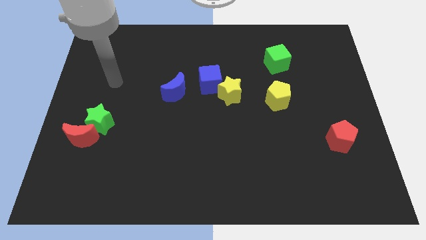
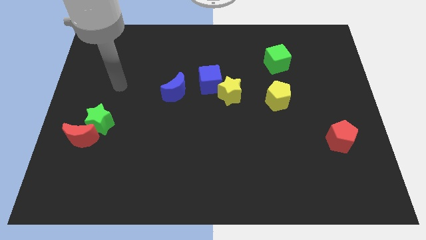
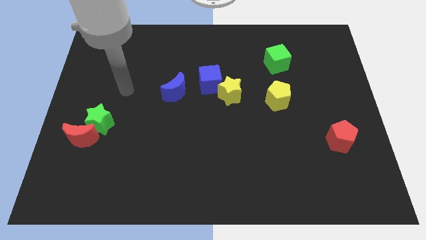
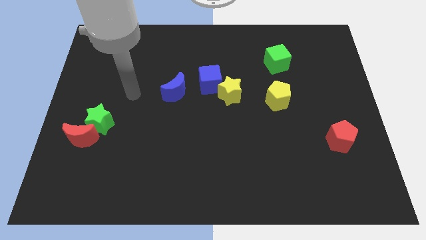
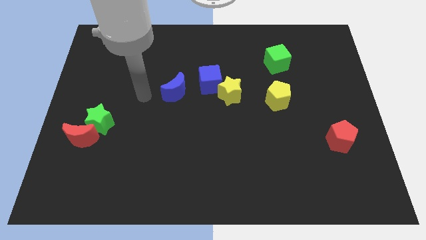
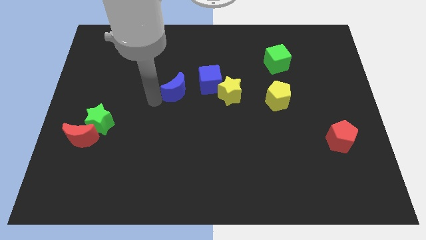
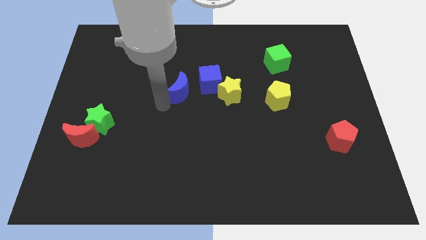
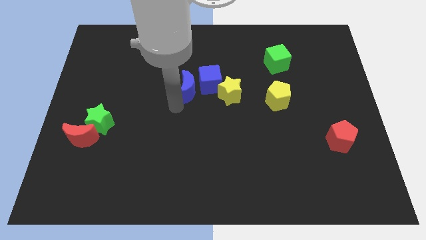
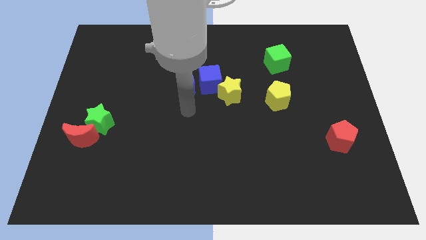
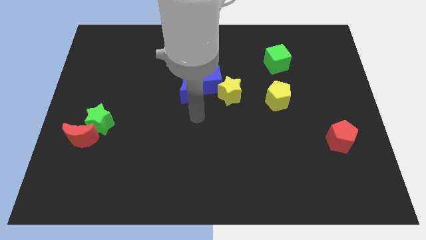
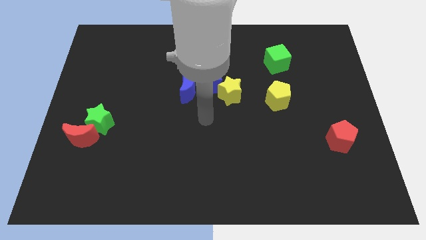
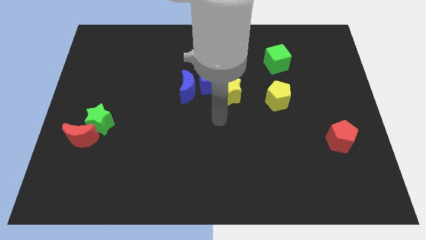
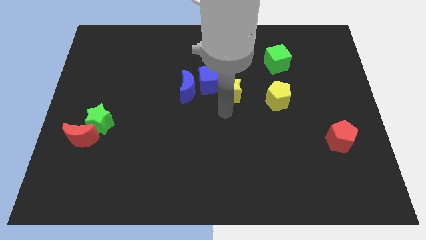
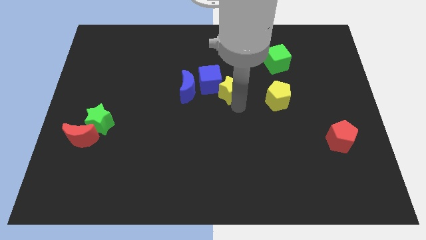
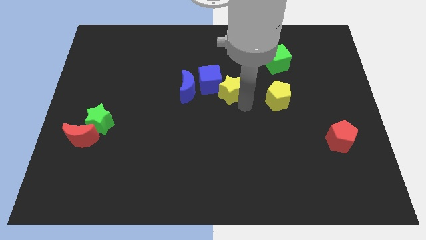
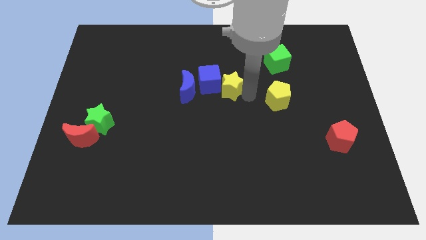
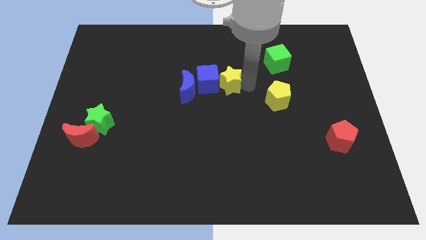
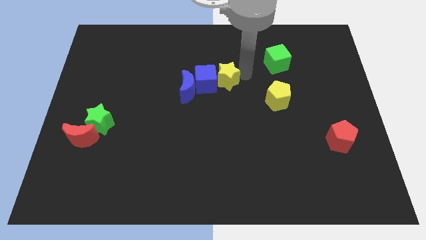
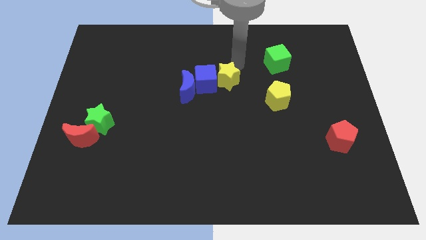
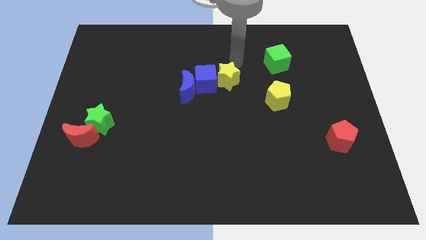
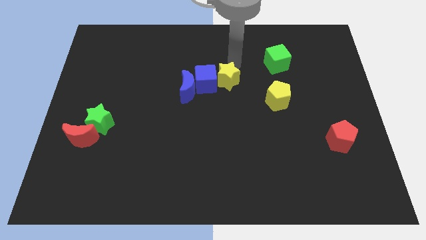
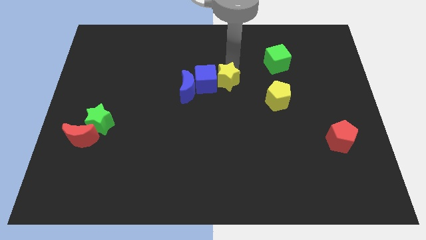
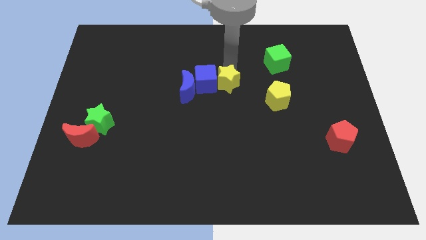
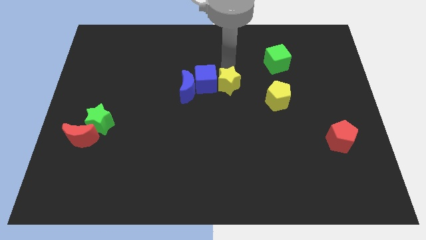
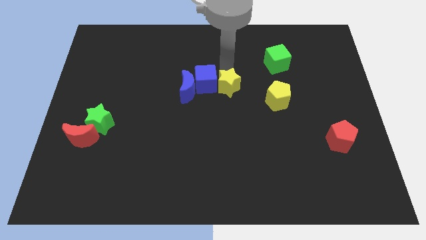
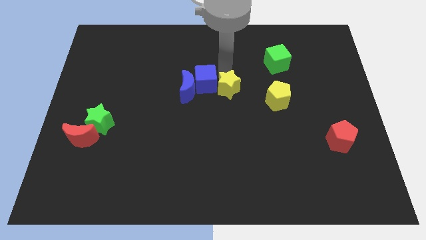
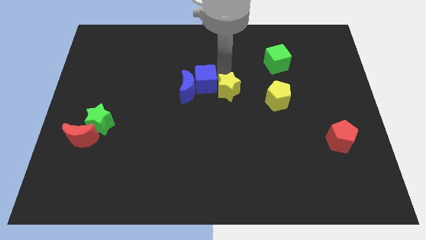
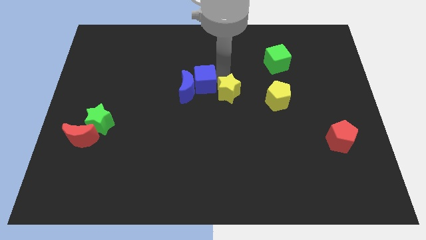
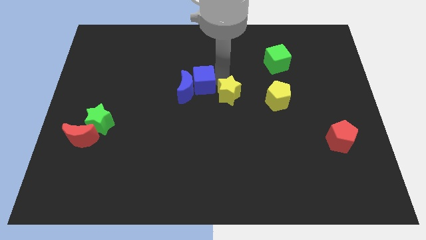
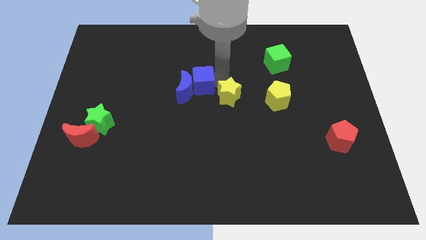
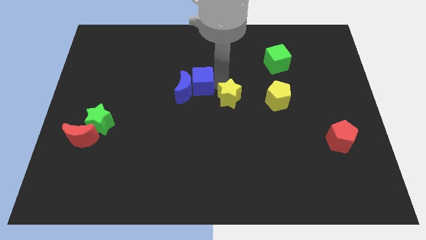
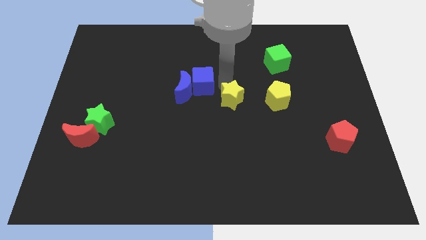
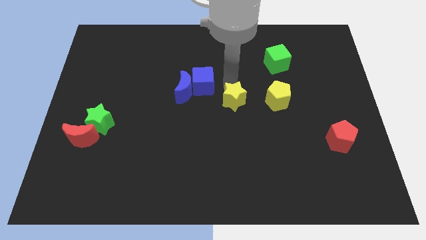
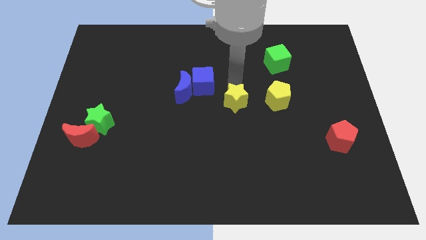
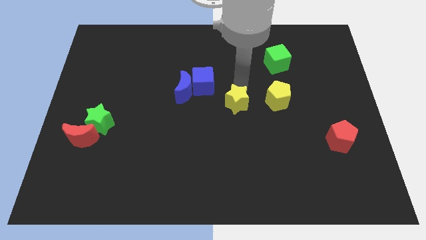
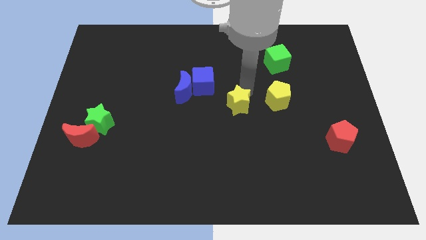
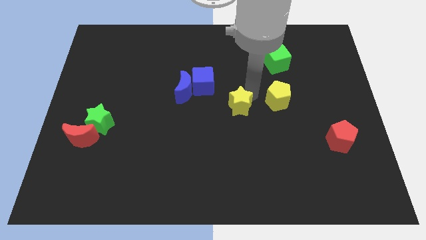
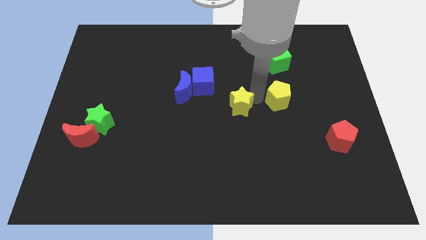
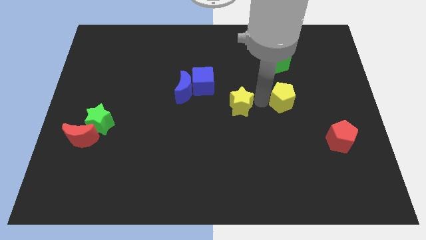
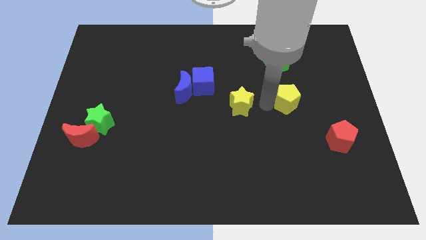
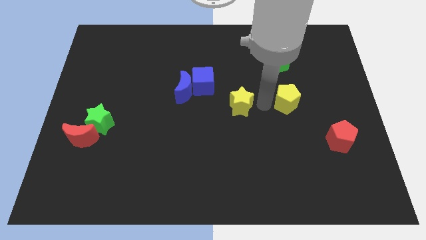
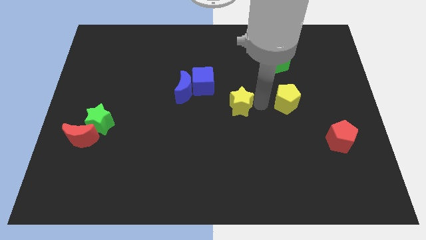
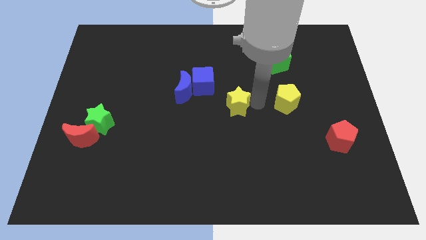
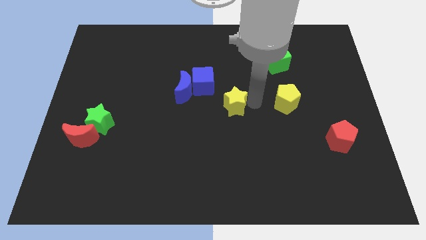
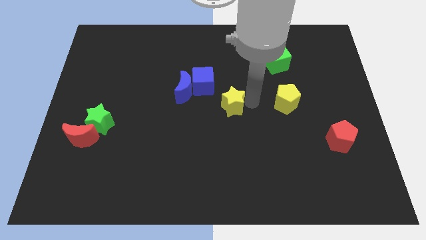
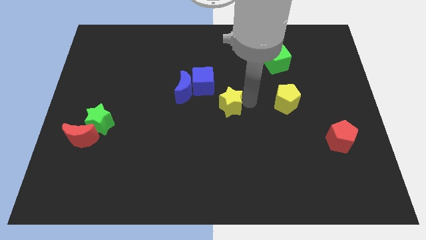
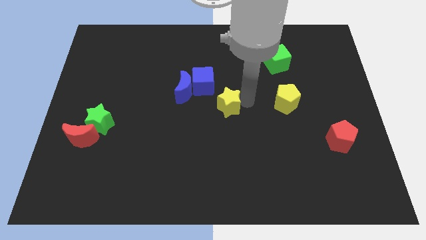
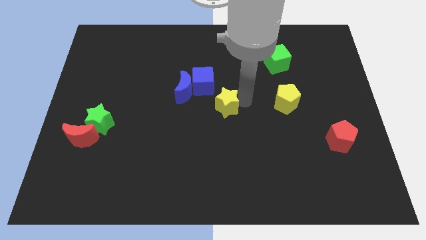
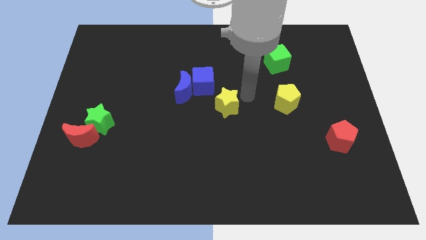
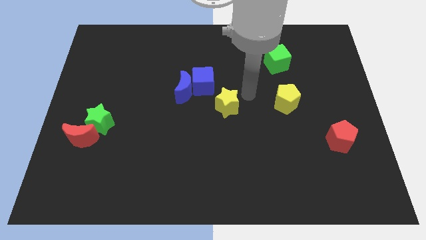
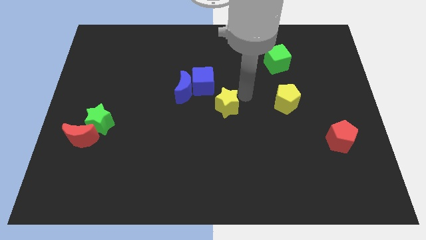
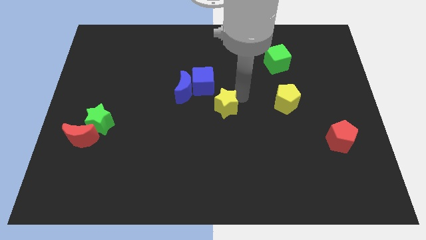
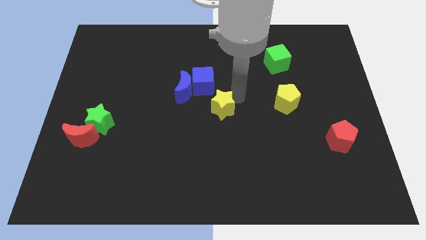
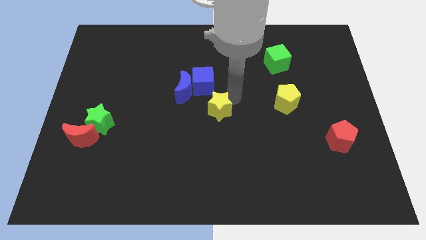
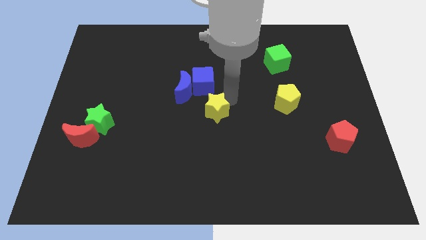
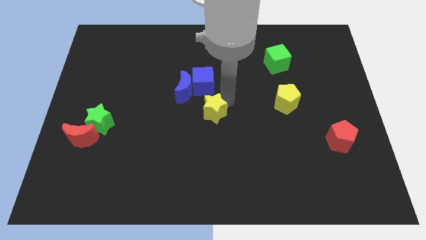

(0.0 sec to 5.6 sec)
push the yellow star down and then to the left a little bit

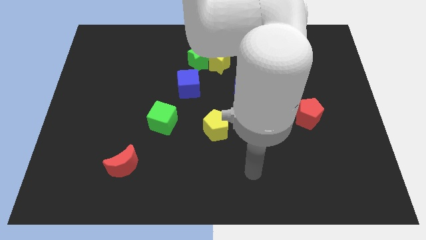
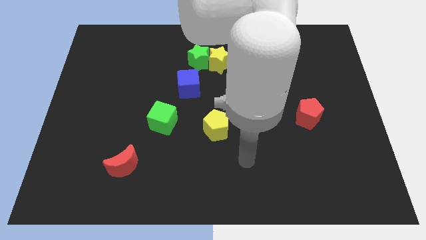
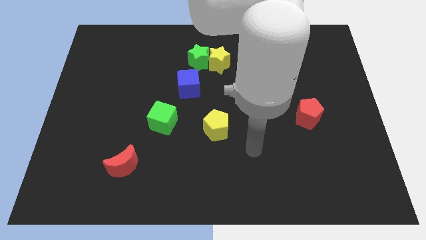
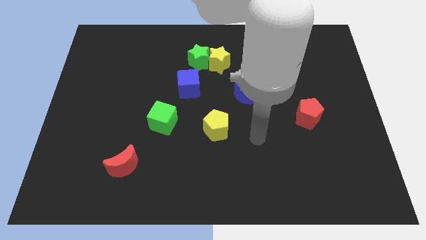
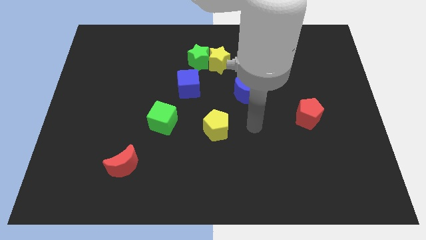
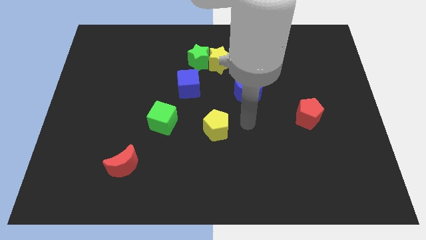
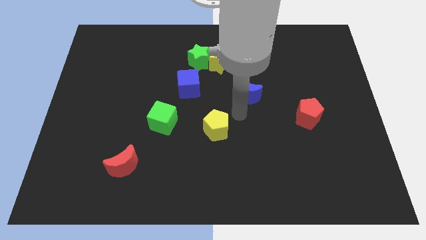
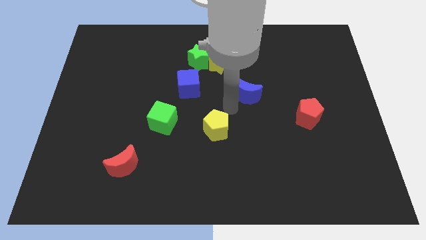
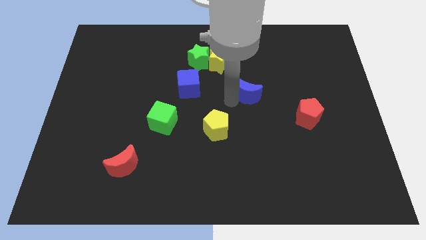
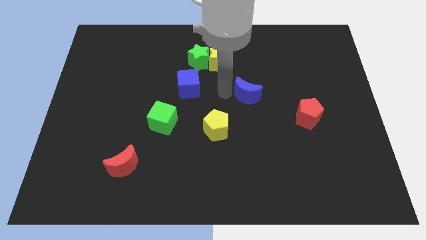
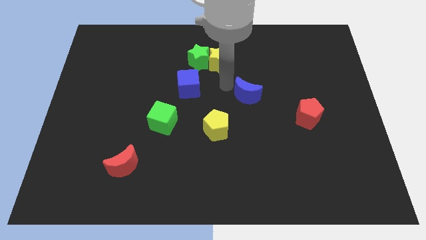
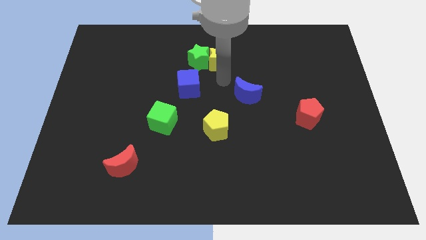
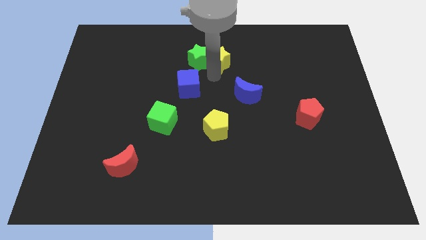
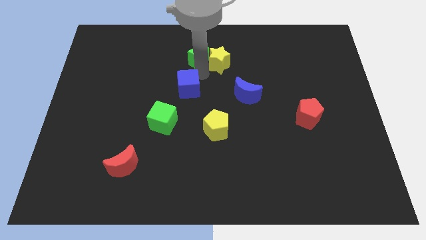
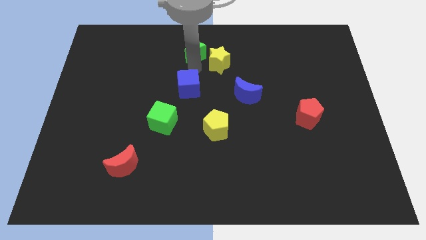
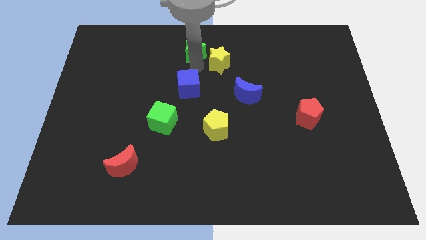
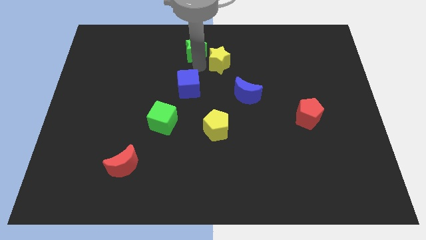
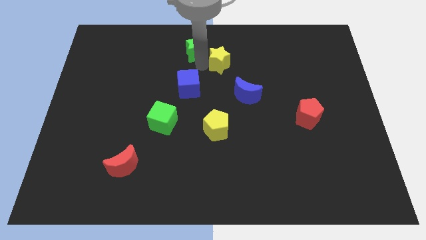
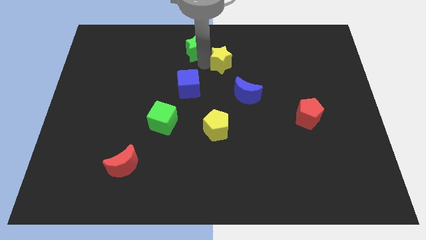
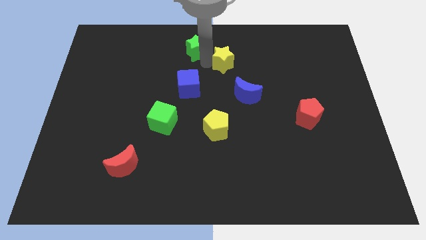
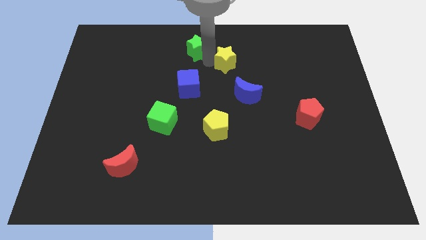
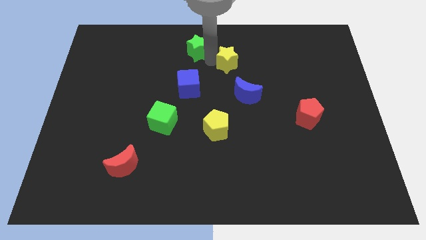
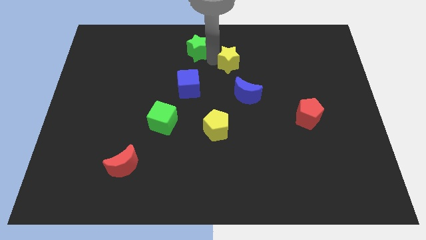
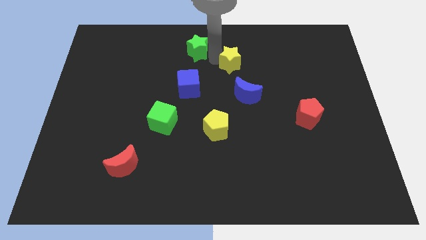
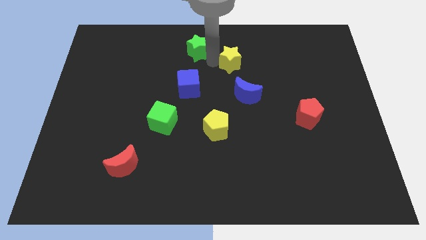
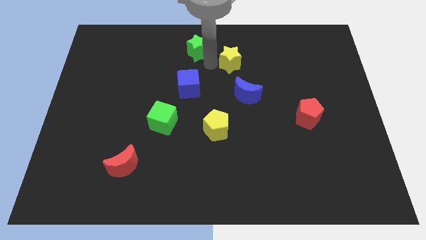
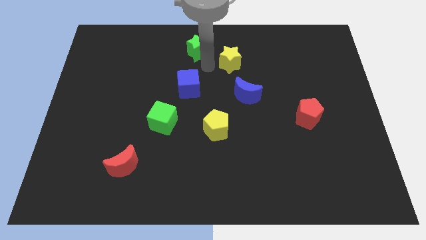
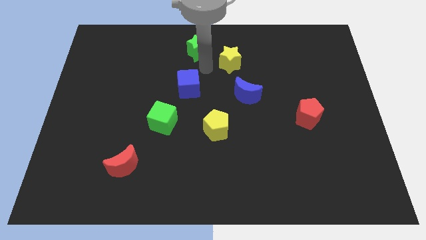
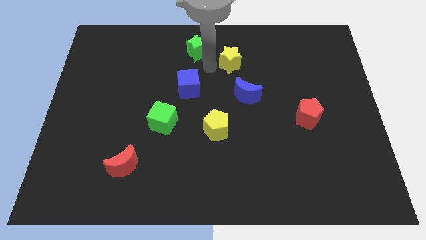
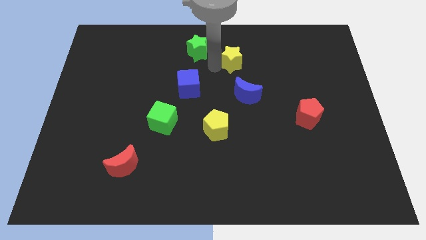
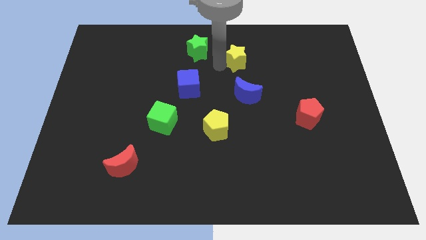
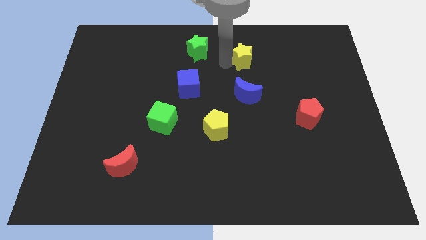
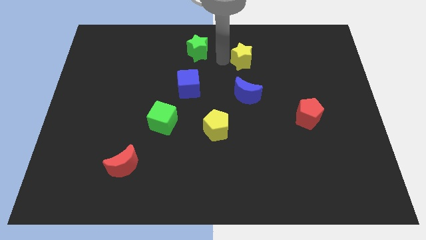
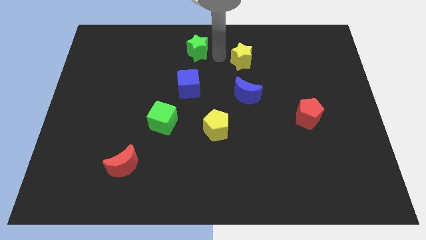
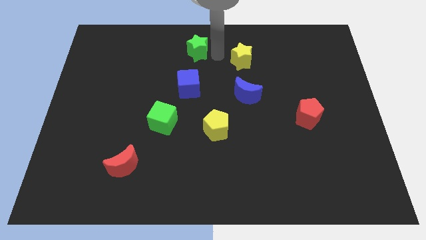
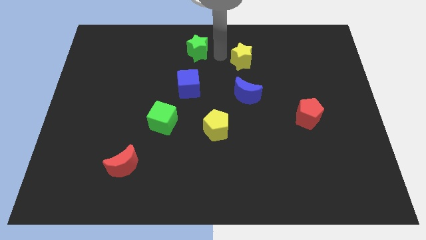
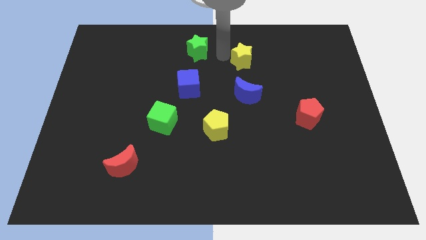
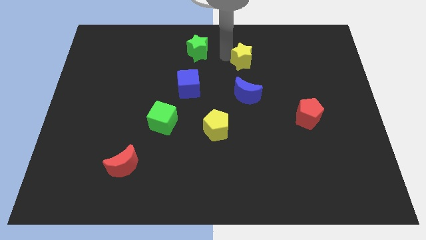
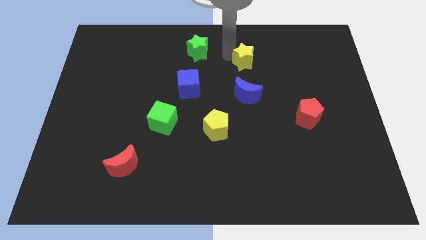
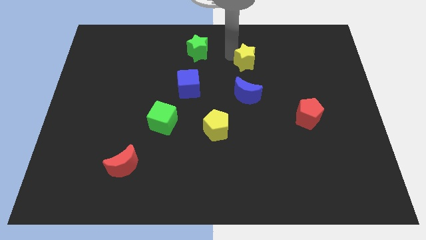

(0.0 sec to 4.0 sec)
slide the yellow star to the right a little bit
